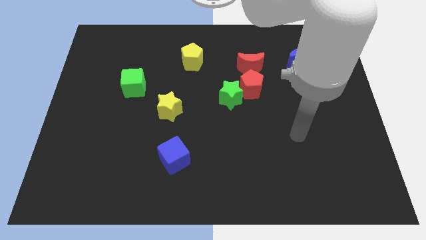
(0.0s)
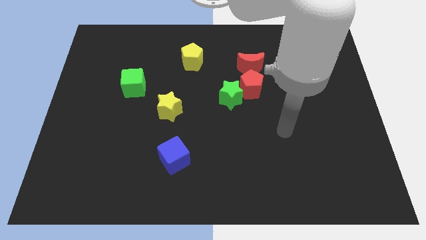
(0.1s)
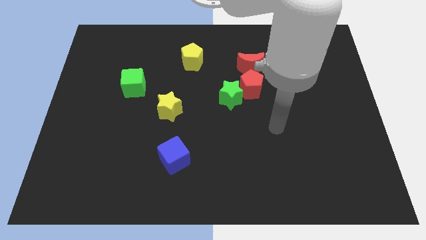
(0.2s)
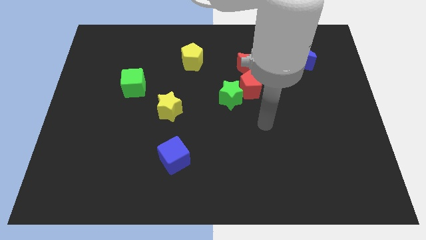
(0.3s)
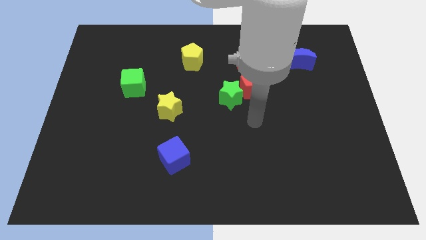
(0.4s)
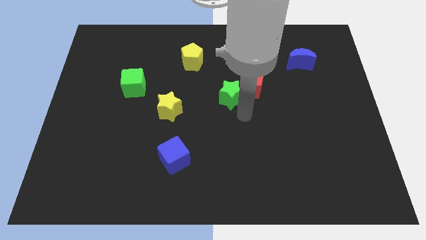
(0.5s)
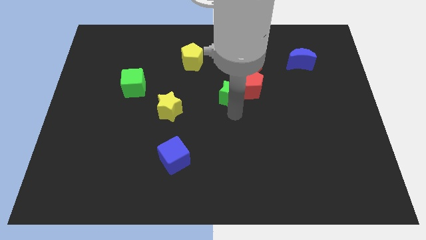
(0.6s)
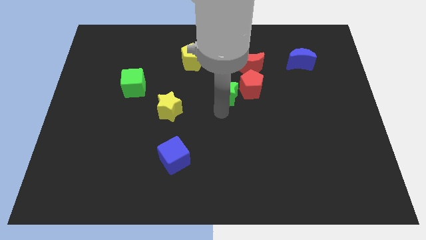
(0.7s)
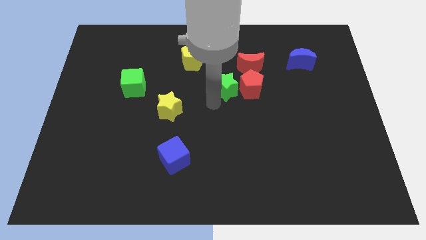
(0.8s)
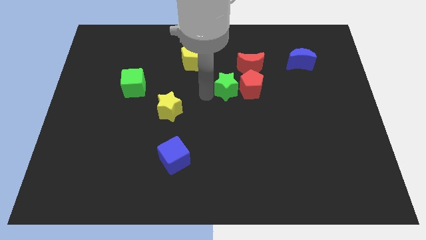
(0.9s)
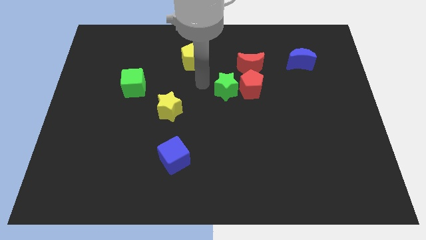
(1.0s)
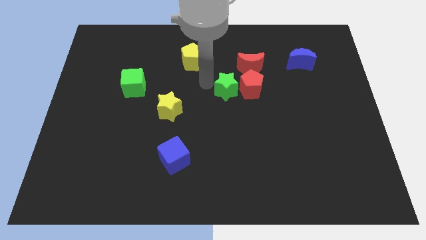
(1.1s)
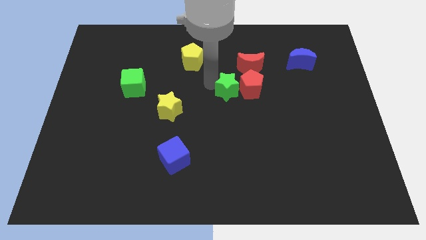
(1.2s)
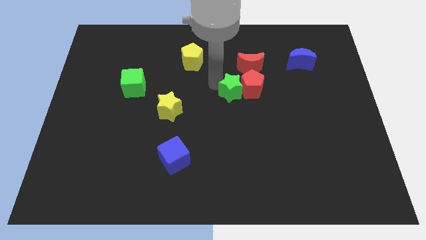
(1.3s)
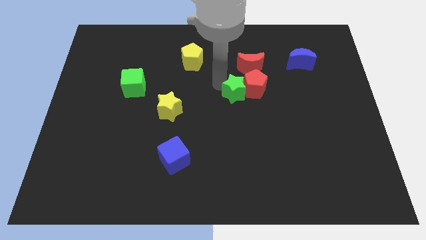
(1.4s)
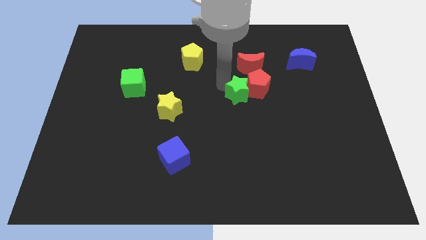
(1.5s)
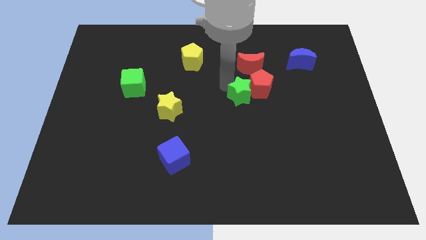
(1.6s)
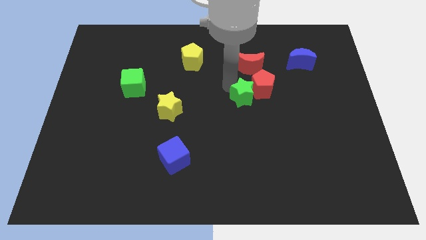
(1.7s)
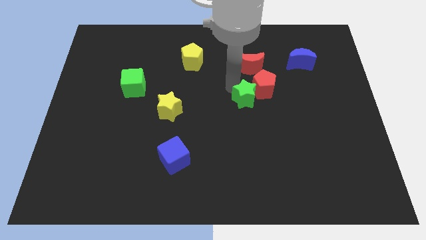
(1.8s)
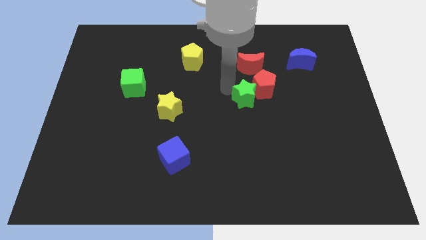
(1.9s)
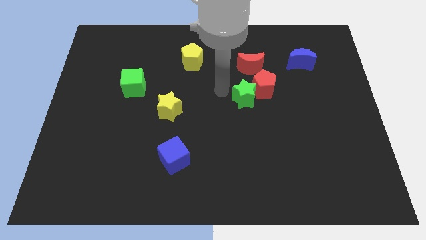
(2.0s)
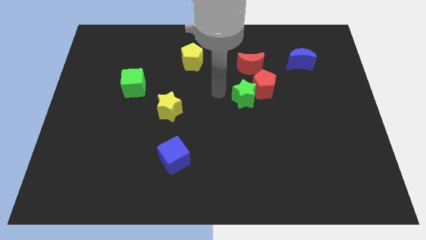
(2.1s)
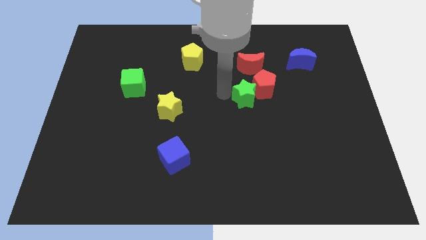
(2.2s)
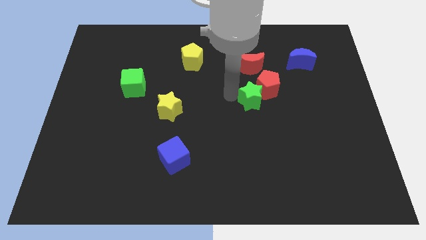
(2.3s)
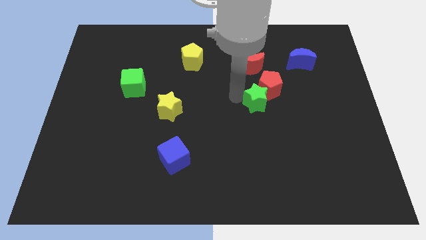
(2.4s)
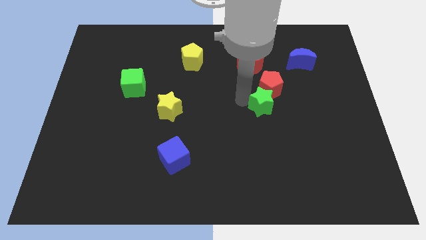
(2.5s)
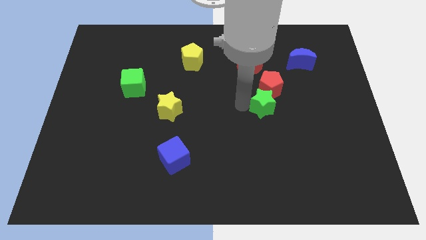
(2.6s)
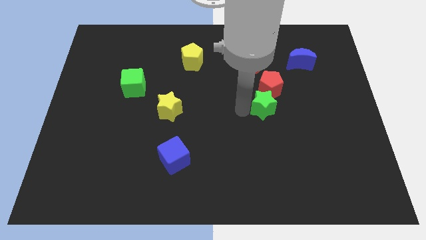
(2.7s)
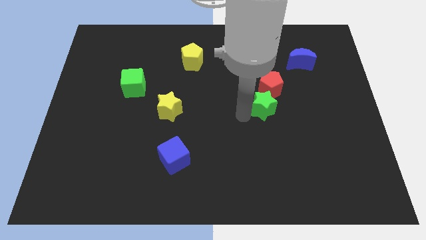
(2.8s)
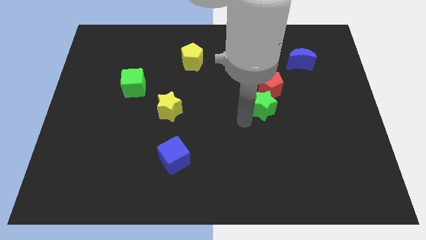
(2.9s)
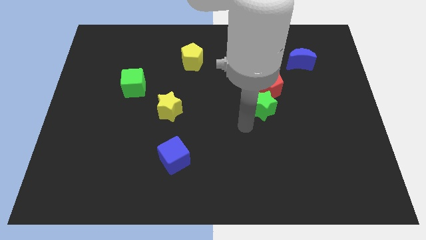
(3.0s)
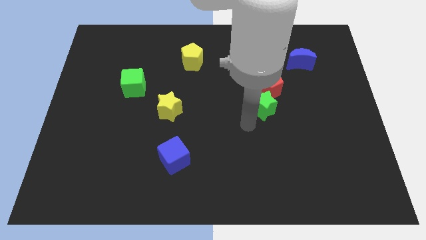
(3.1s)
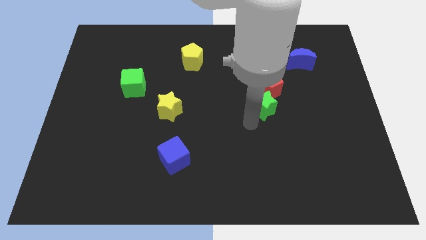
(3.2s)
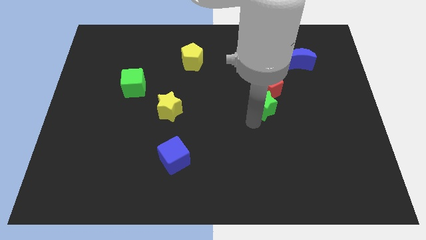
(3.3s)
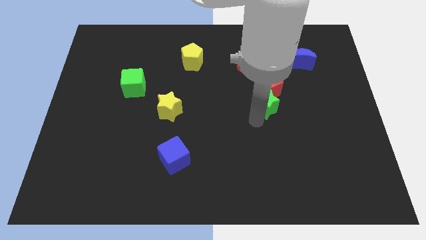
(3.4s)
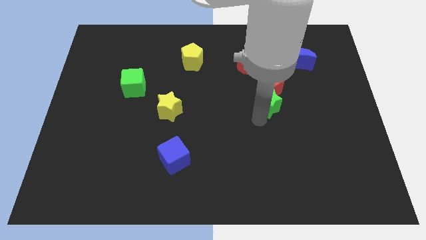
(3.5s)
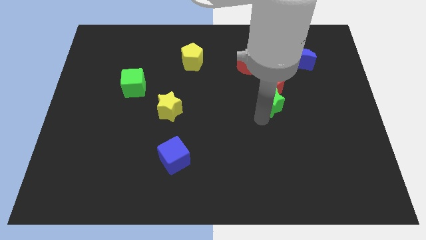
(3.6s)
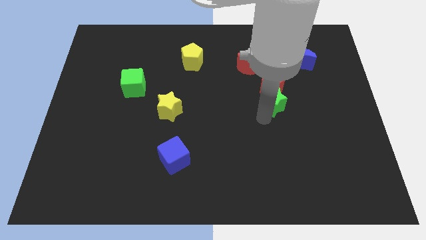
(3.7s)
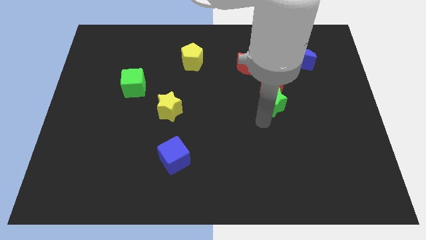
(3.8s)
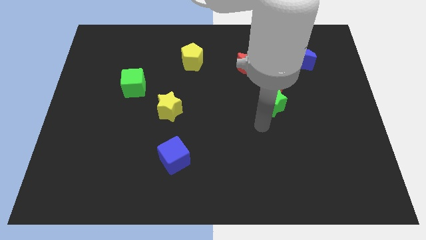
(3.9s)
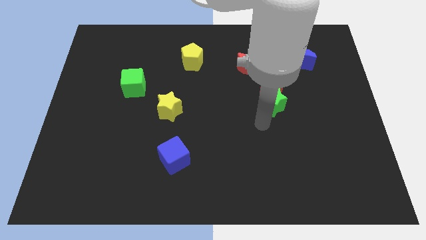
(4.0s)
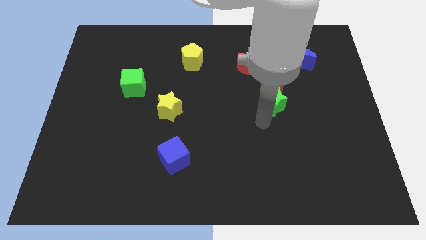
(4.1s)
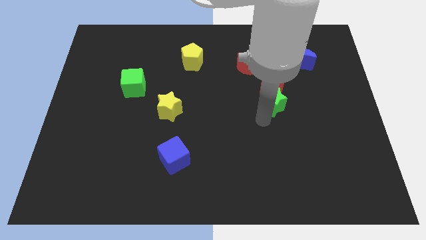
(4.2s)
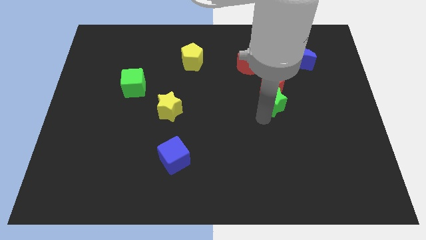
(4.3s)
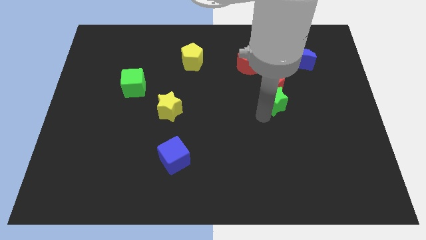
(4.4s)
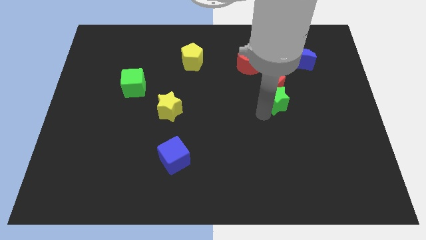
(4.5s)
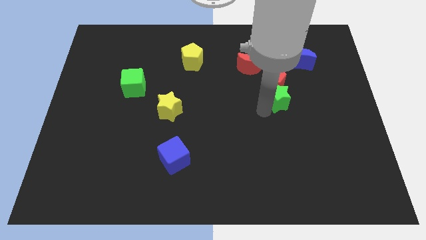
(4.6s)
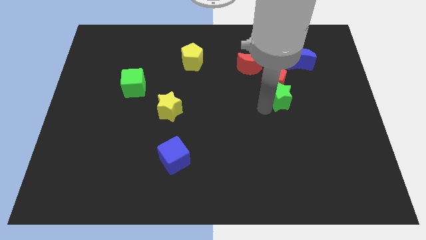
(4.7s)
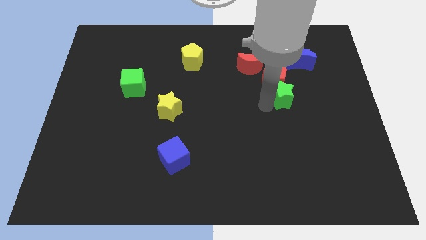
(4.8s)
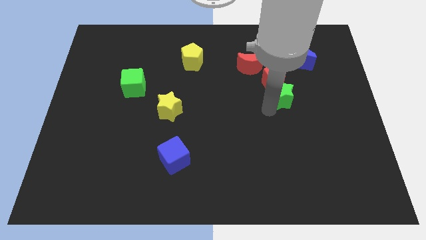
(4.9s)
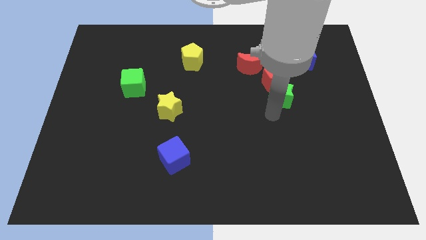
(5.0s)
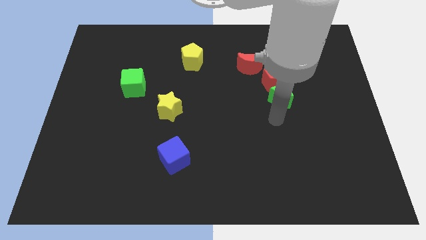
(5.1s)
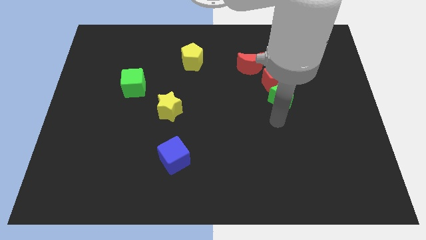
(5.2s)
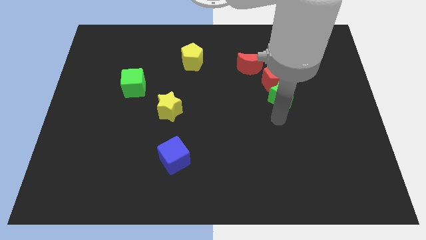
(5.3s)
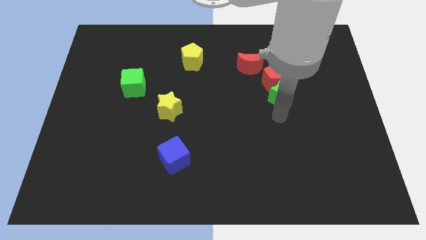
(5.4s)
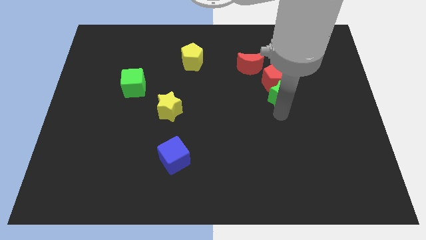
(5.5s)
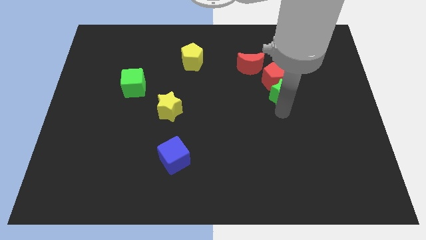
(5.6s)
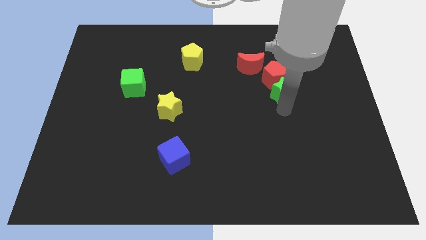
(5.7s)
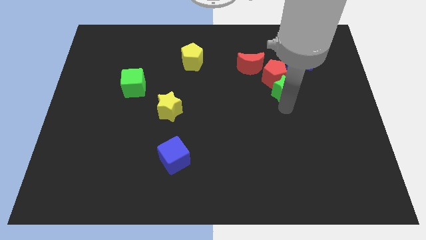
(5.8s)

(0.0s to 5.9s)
push the green star upwards and then right a bit

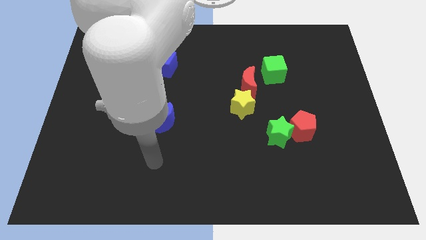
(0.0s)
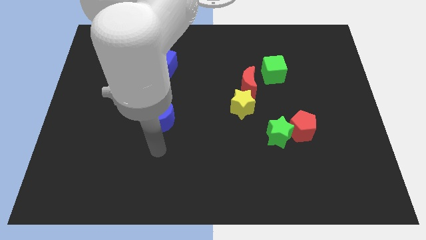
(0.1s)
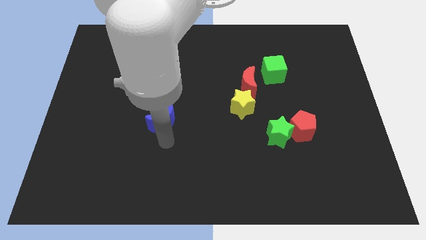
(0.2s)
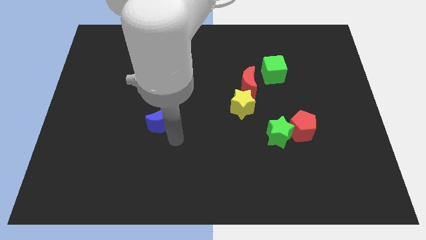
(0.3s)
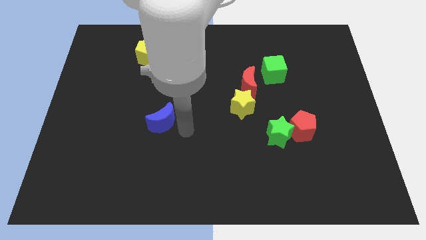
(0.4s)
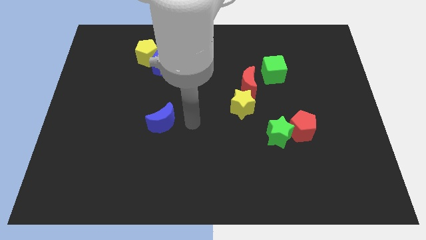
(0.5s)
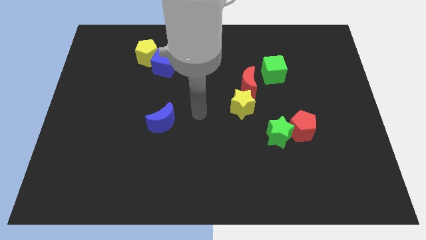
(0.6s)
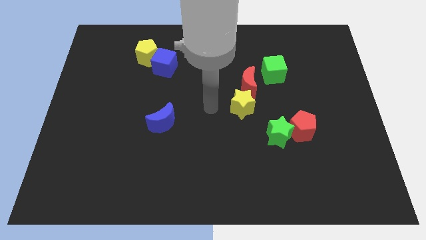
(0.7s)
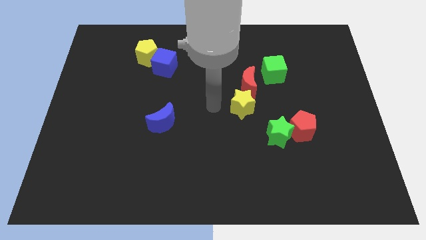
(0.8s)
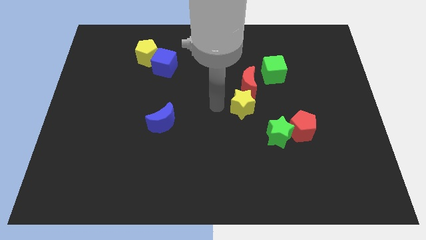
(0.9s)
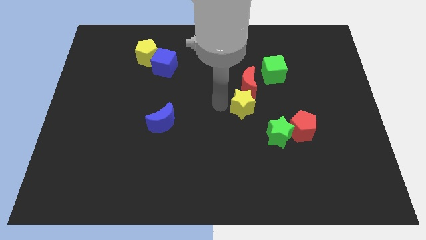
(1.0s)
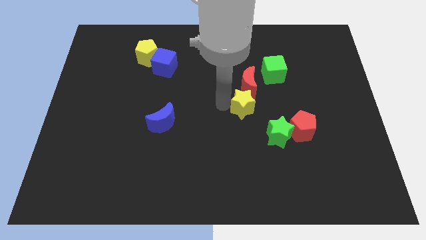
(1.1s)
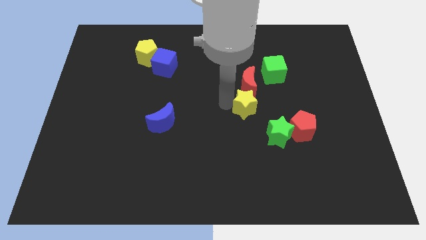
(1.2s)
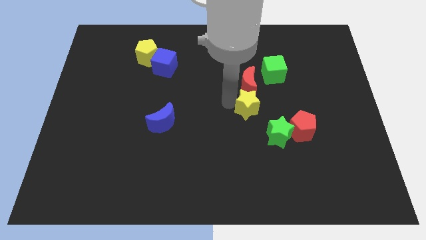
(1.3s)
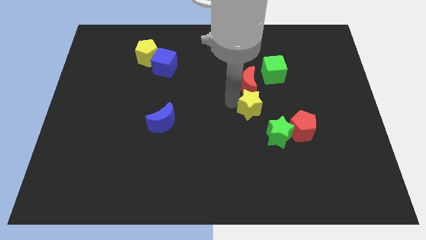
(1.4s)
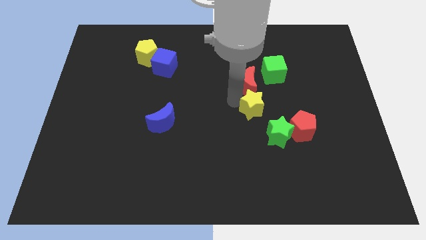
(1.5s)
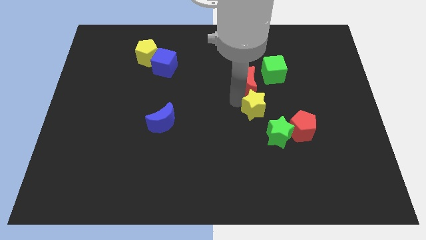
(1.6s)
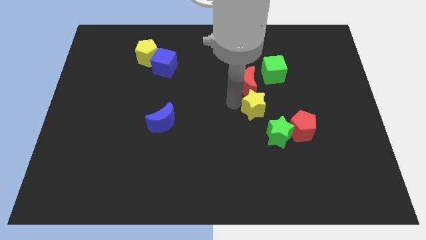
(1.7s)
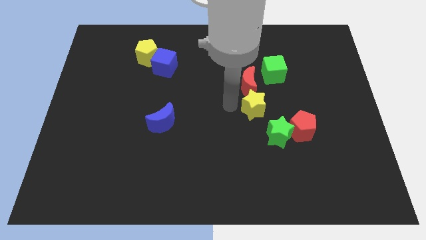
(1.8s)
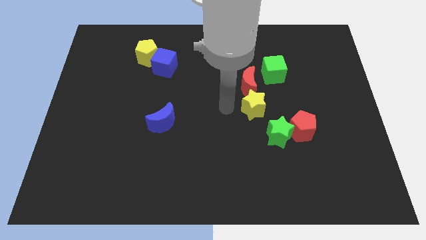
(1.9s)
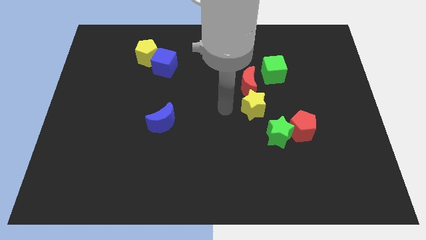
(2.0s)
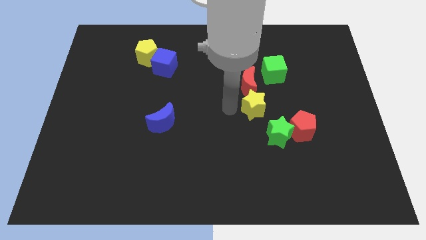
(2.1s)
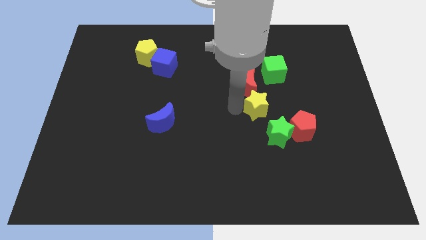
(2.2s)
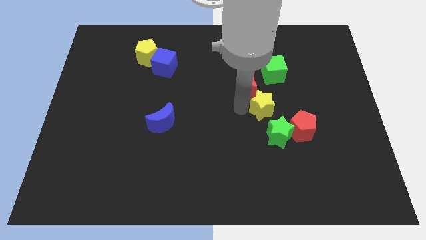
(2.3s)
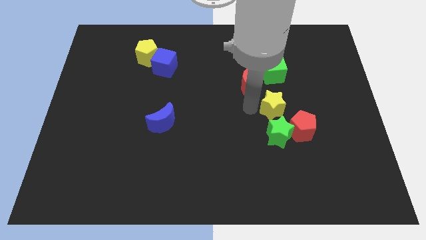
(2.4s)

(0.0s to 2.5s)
slide the yellow star a bit right
